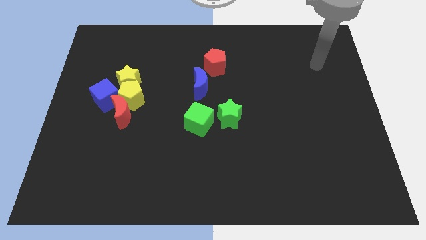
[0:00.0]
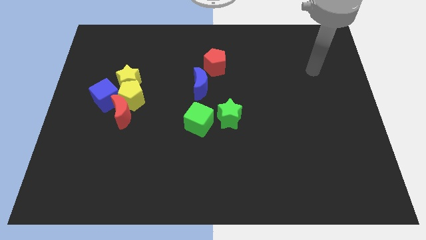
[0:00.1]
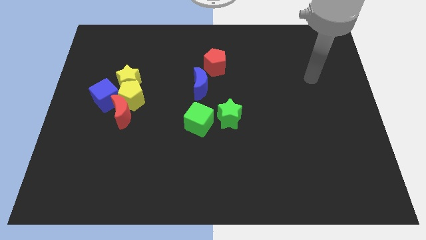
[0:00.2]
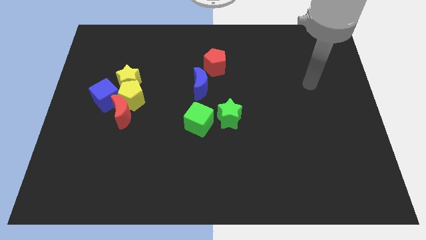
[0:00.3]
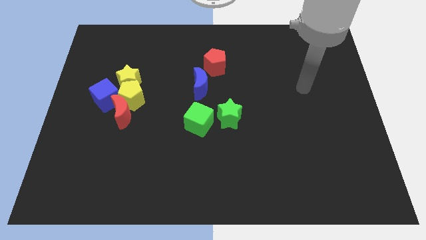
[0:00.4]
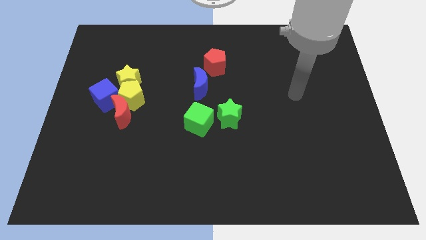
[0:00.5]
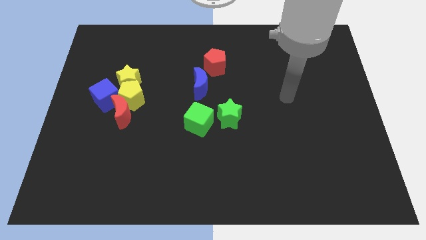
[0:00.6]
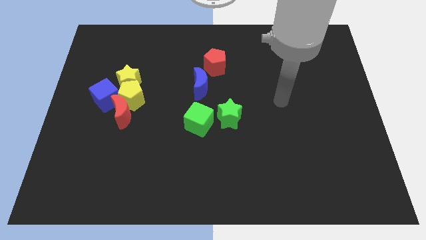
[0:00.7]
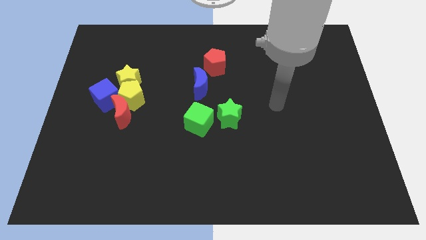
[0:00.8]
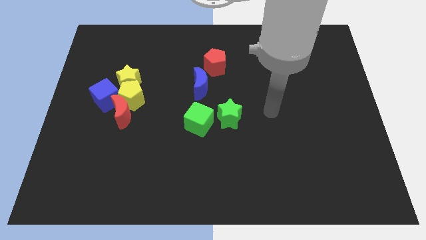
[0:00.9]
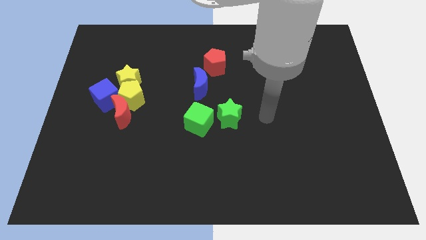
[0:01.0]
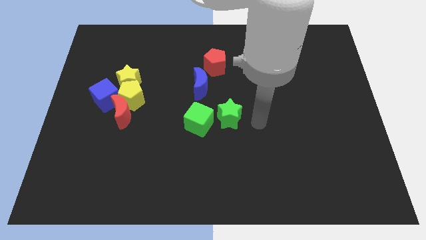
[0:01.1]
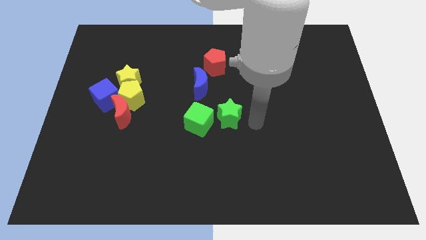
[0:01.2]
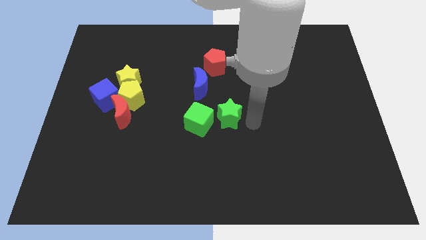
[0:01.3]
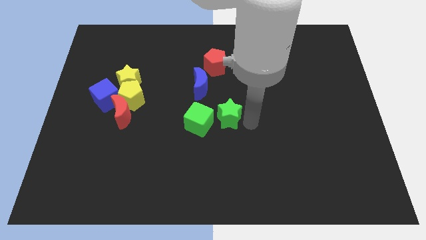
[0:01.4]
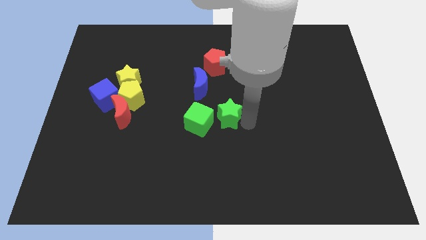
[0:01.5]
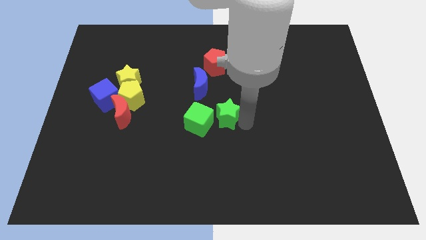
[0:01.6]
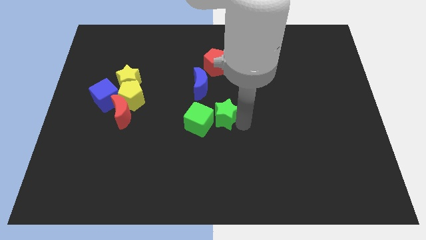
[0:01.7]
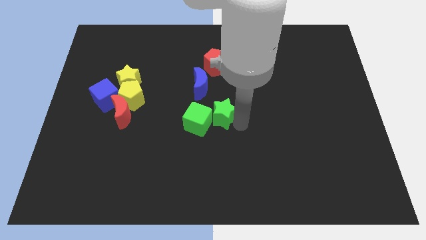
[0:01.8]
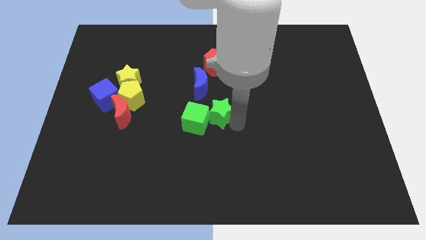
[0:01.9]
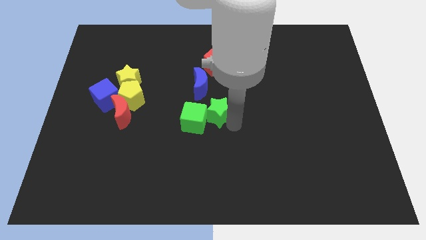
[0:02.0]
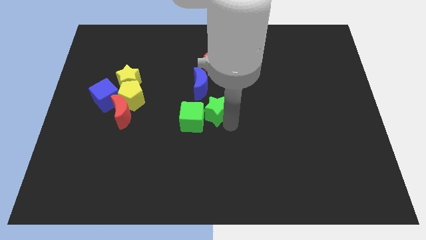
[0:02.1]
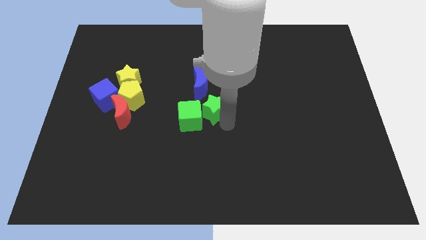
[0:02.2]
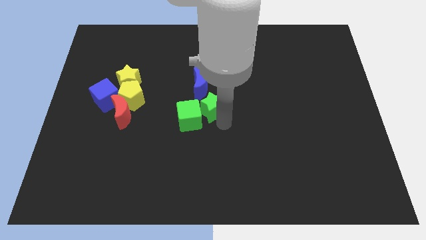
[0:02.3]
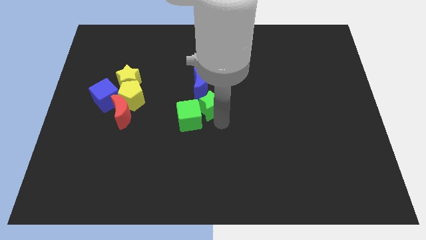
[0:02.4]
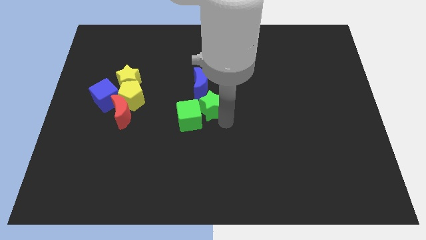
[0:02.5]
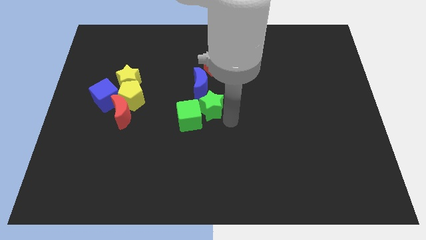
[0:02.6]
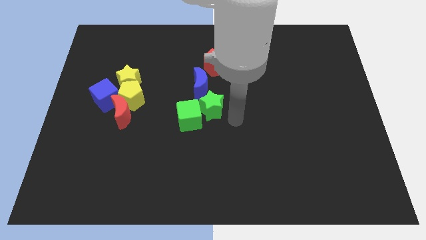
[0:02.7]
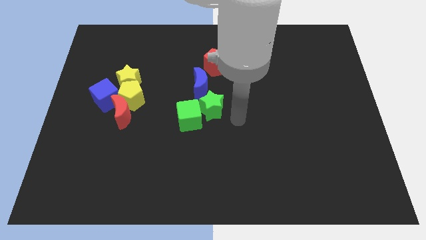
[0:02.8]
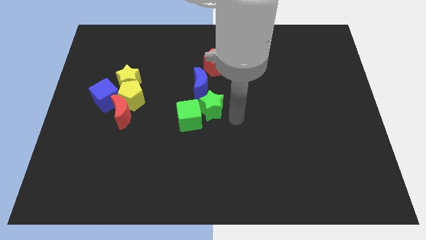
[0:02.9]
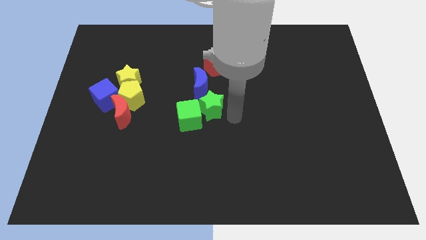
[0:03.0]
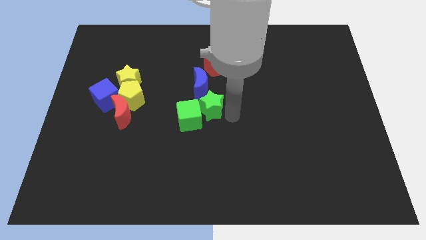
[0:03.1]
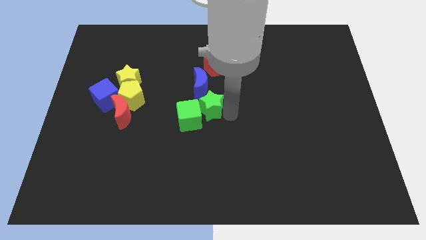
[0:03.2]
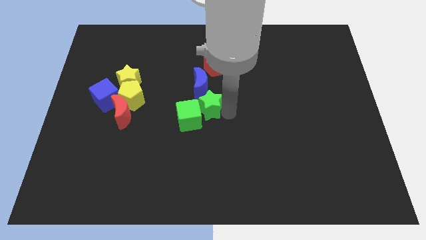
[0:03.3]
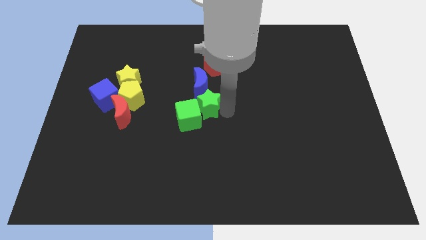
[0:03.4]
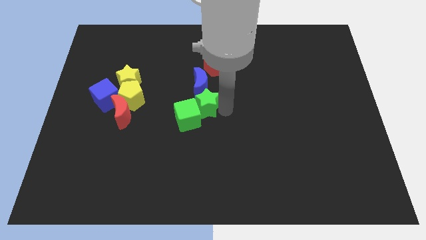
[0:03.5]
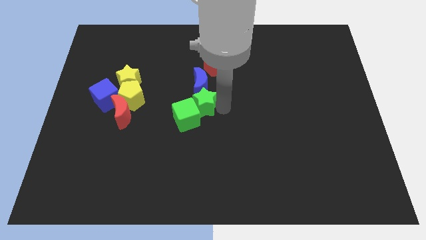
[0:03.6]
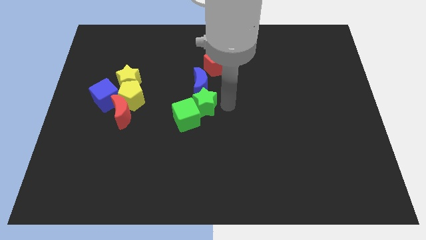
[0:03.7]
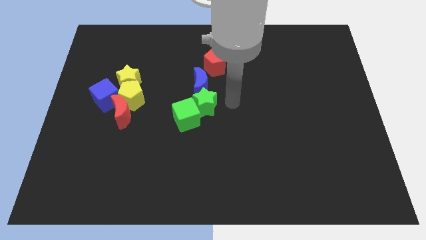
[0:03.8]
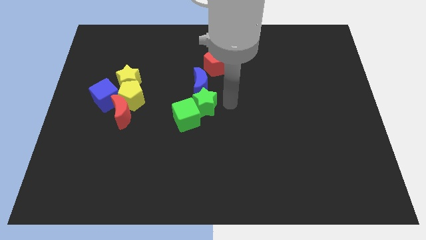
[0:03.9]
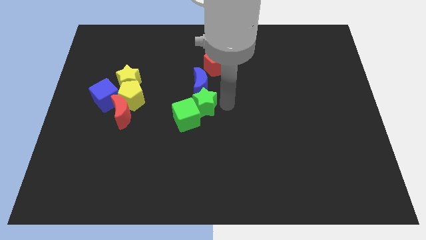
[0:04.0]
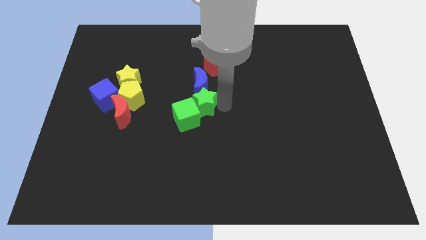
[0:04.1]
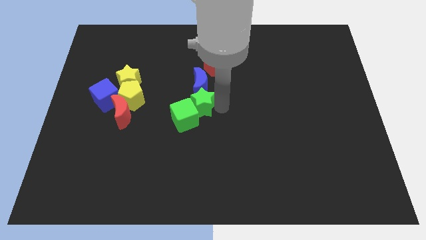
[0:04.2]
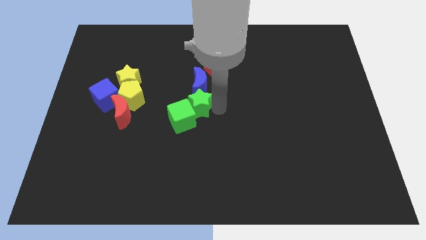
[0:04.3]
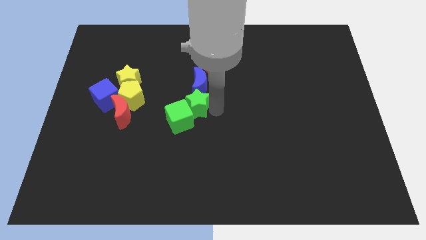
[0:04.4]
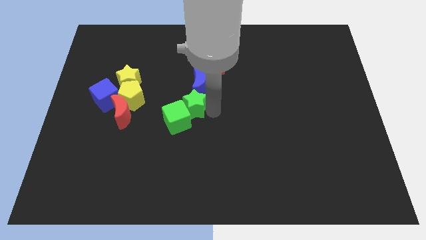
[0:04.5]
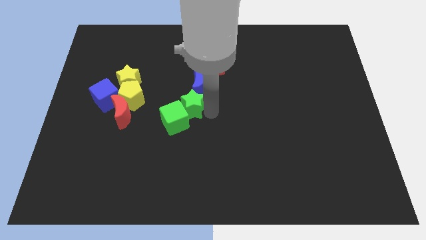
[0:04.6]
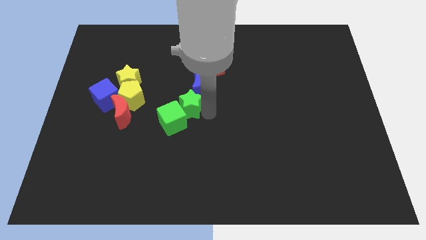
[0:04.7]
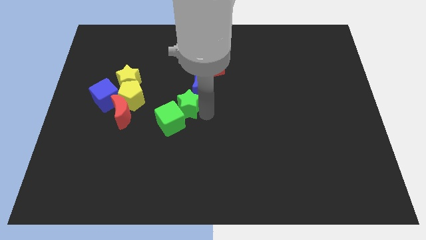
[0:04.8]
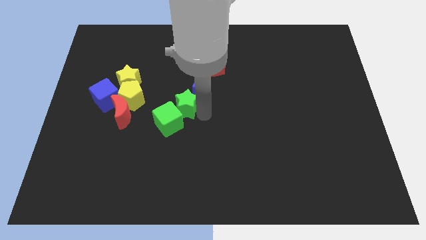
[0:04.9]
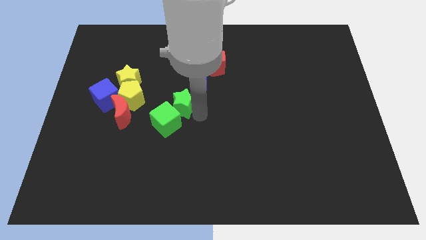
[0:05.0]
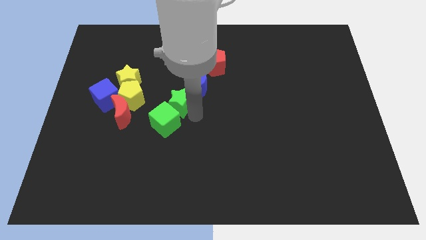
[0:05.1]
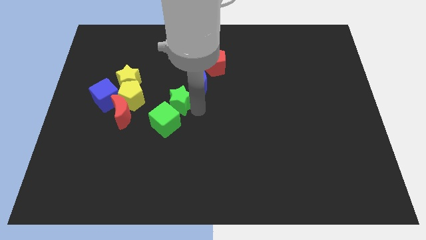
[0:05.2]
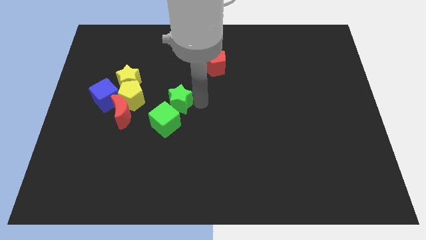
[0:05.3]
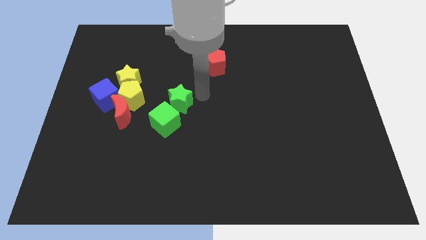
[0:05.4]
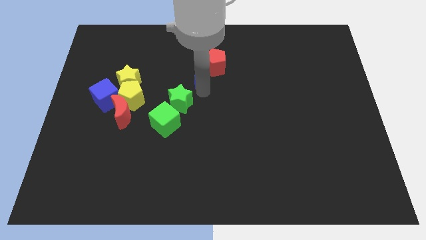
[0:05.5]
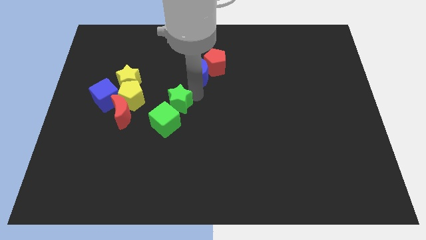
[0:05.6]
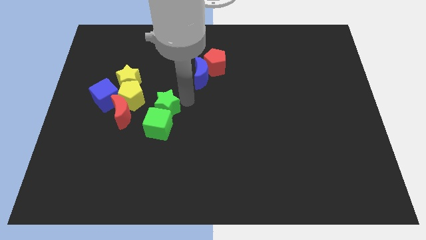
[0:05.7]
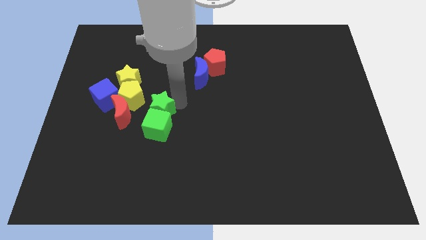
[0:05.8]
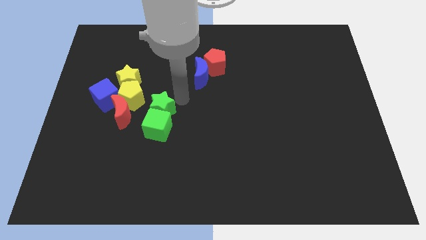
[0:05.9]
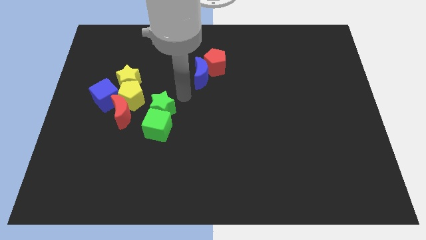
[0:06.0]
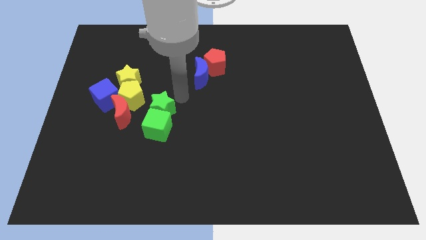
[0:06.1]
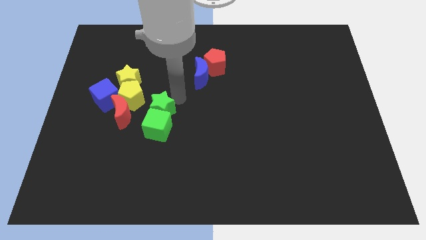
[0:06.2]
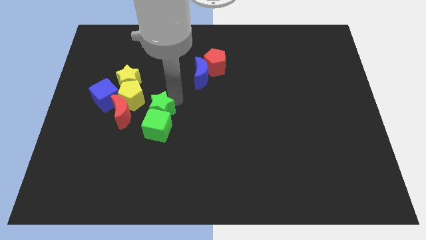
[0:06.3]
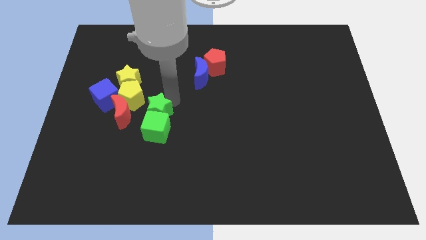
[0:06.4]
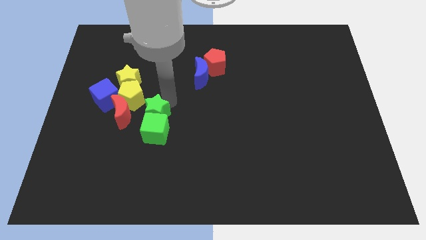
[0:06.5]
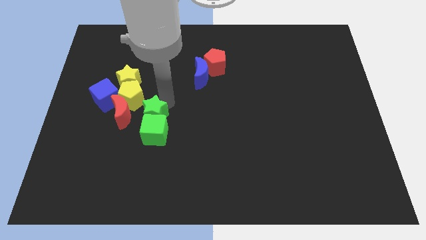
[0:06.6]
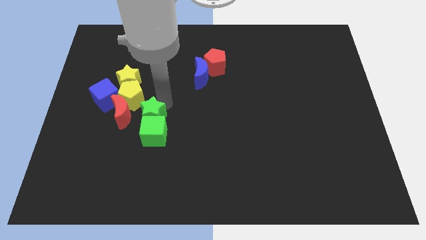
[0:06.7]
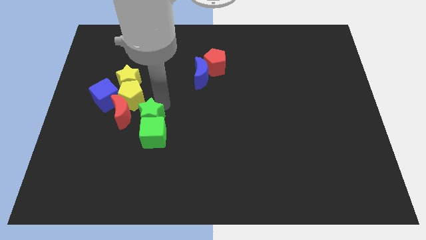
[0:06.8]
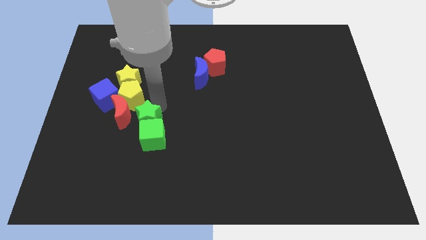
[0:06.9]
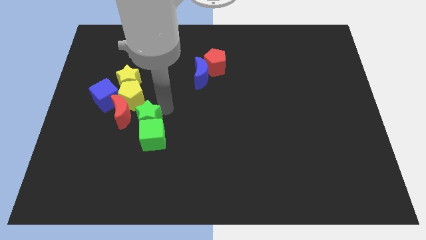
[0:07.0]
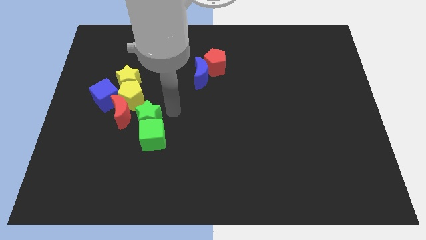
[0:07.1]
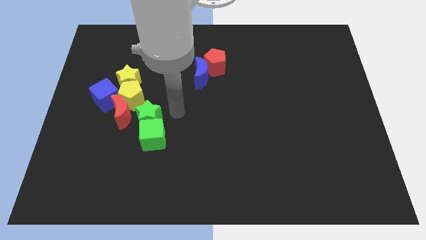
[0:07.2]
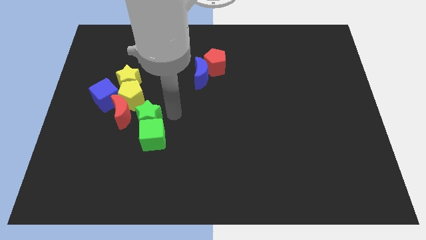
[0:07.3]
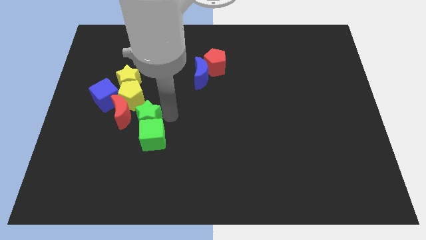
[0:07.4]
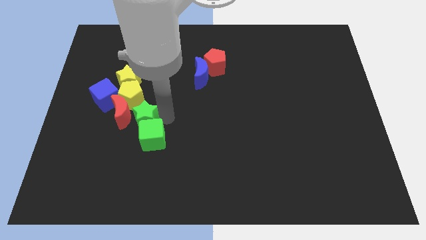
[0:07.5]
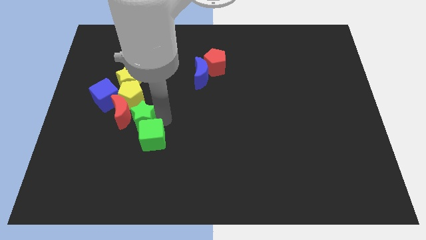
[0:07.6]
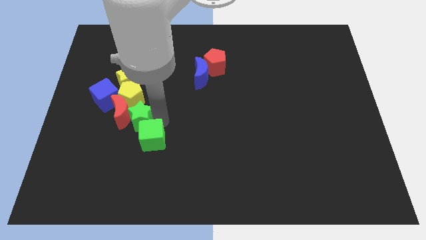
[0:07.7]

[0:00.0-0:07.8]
push the green star left
